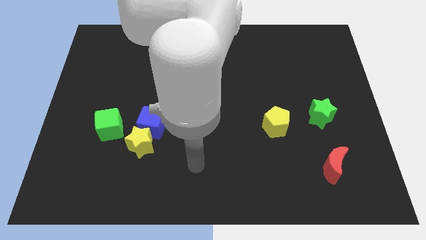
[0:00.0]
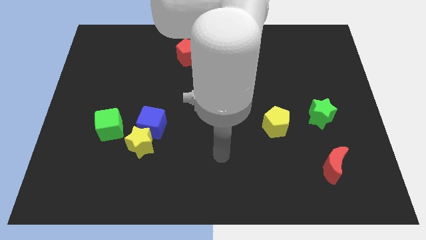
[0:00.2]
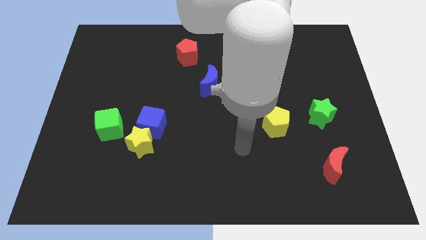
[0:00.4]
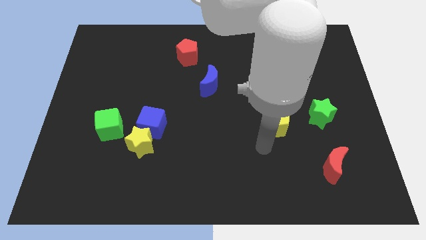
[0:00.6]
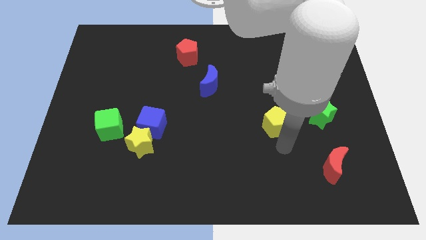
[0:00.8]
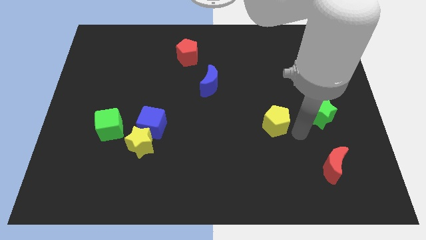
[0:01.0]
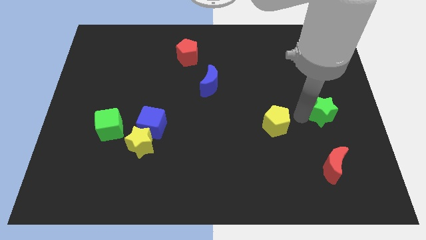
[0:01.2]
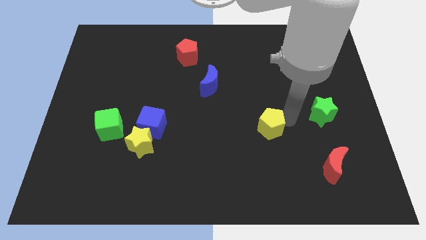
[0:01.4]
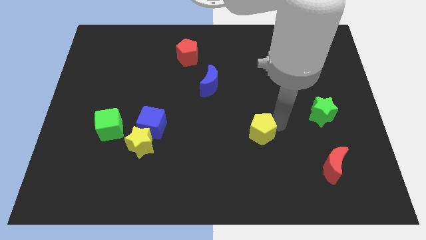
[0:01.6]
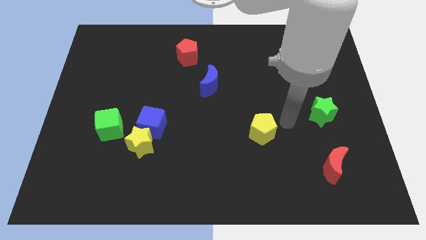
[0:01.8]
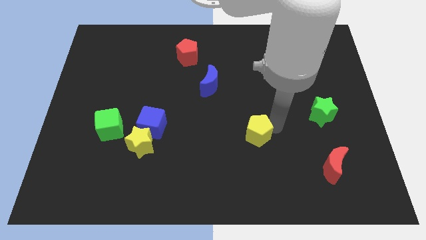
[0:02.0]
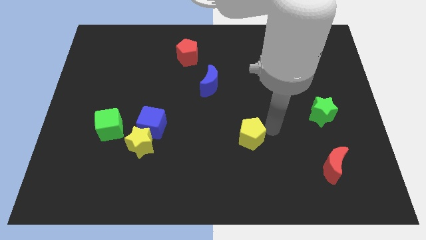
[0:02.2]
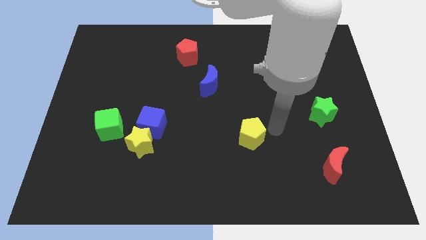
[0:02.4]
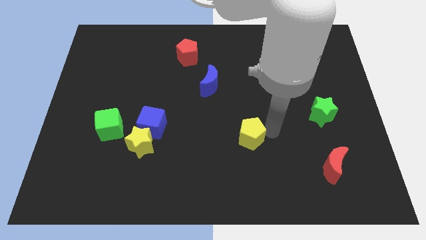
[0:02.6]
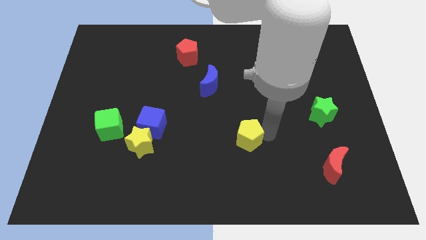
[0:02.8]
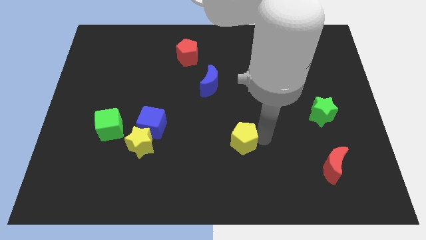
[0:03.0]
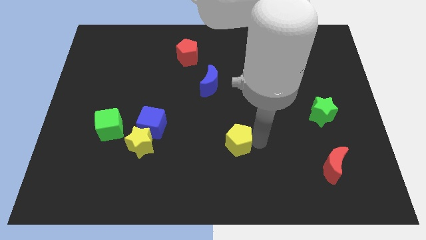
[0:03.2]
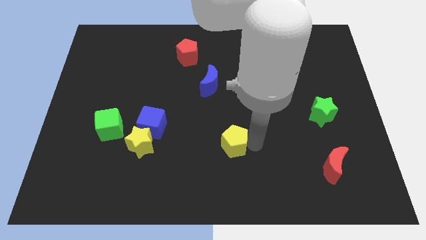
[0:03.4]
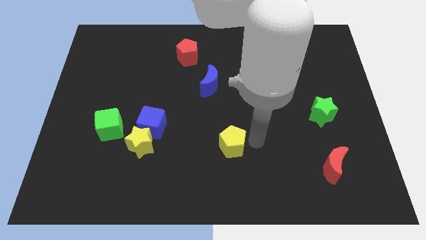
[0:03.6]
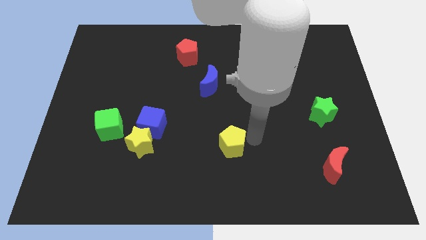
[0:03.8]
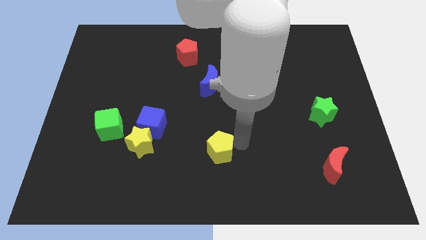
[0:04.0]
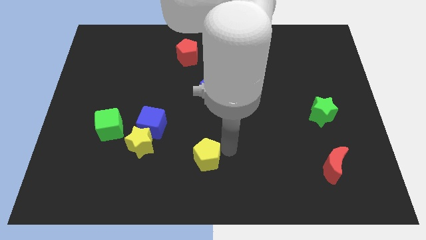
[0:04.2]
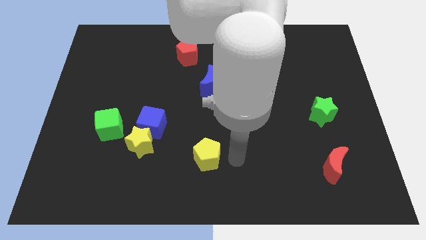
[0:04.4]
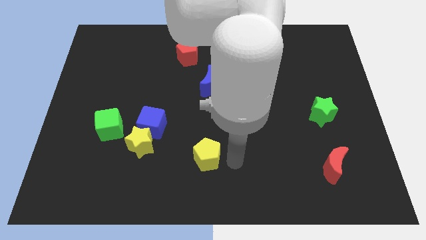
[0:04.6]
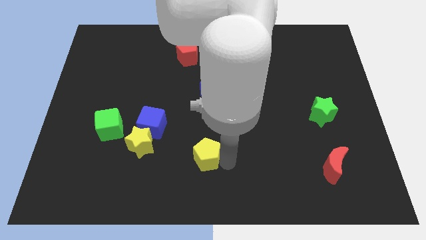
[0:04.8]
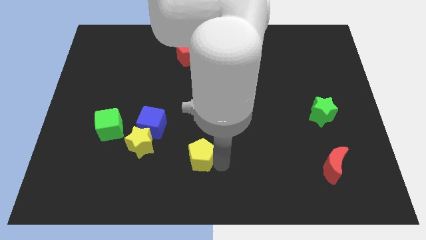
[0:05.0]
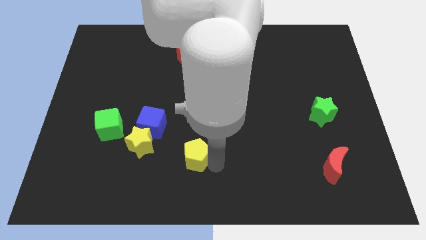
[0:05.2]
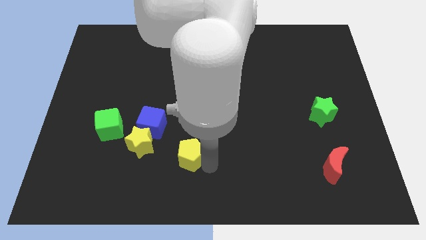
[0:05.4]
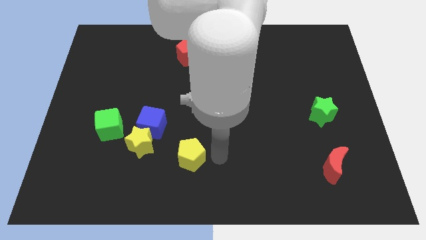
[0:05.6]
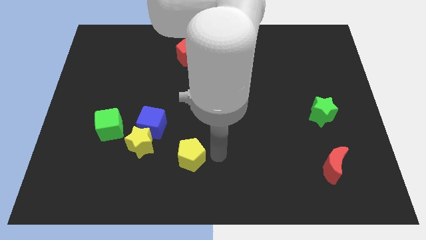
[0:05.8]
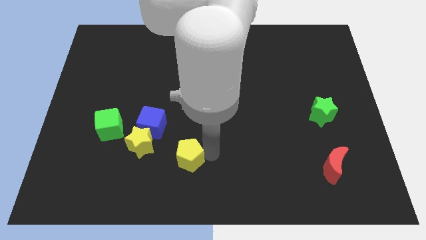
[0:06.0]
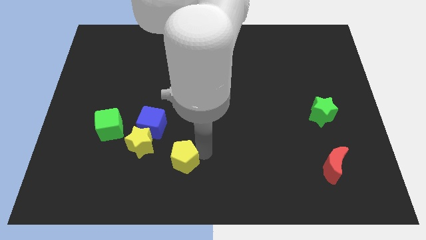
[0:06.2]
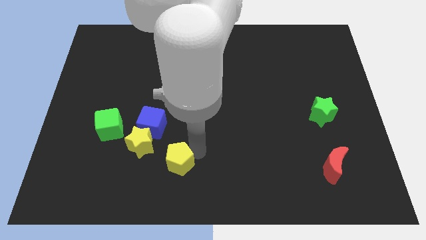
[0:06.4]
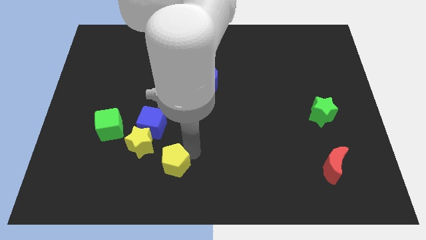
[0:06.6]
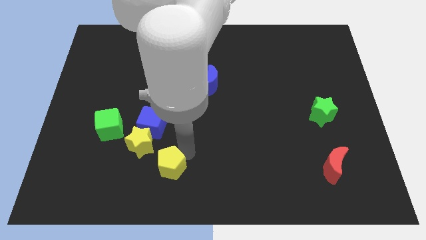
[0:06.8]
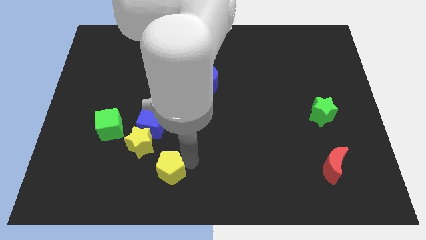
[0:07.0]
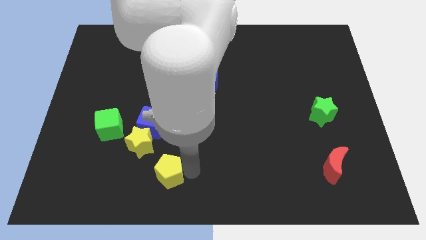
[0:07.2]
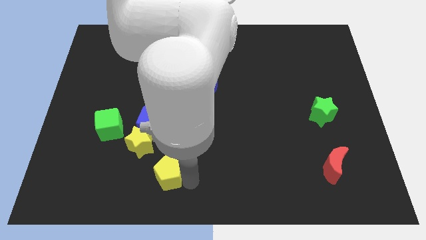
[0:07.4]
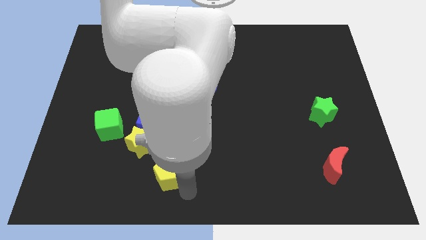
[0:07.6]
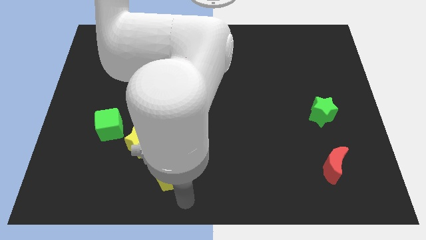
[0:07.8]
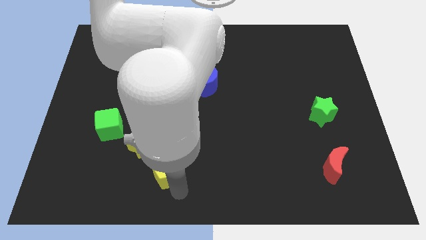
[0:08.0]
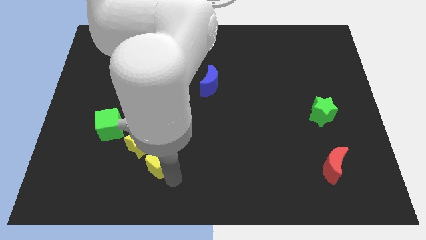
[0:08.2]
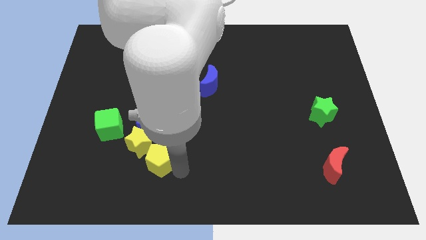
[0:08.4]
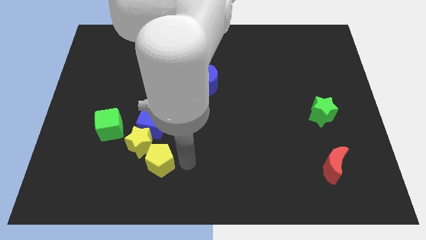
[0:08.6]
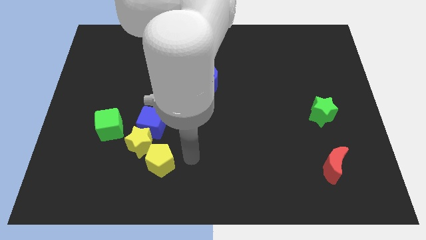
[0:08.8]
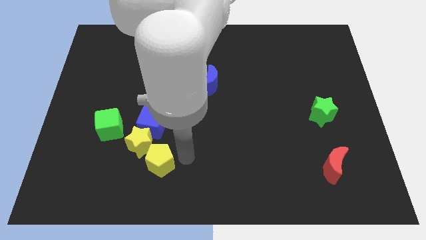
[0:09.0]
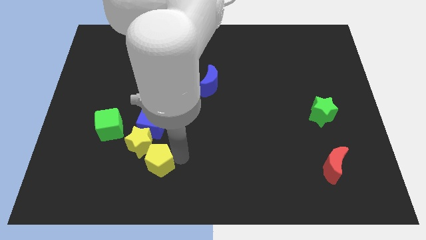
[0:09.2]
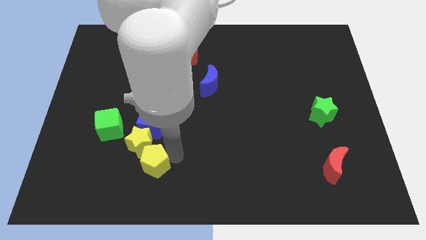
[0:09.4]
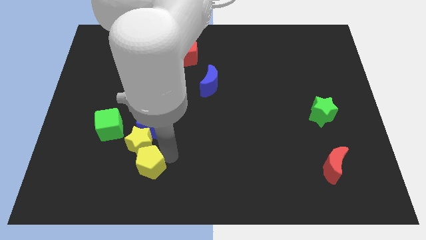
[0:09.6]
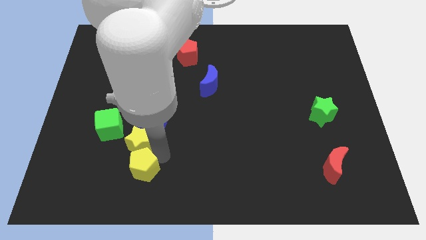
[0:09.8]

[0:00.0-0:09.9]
move the yellow pentagon diagonally down and to the left of the yellow star

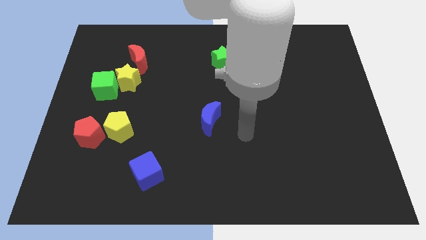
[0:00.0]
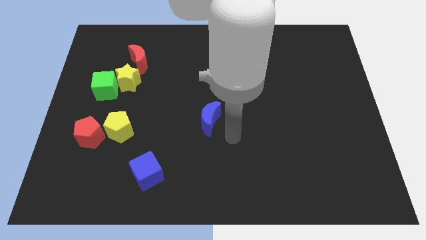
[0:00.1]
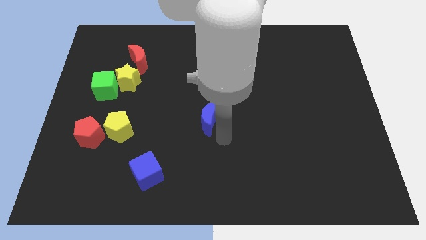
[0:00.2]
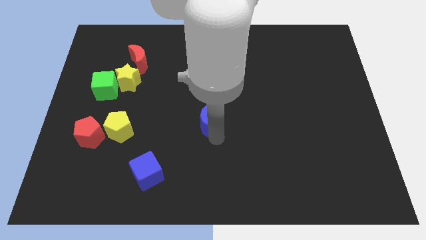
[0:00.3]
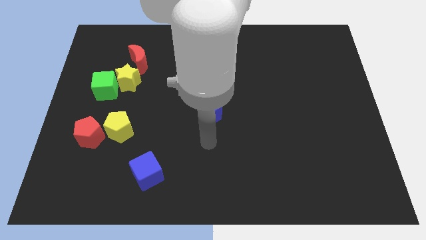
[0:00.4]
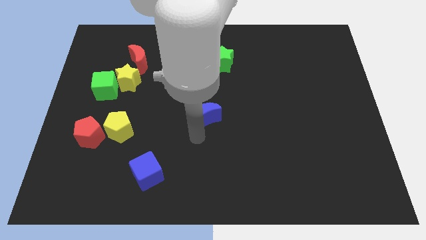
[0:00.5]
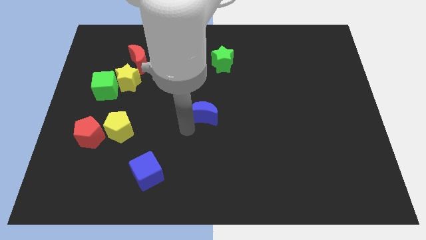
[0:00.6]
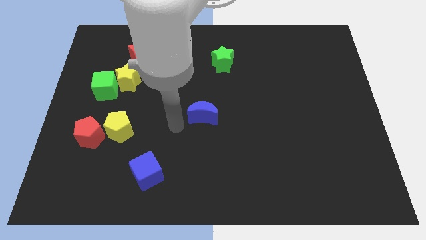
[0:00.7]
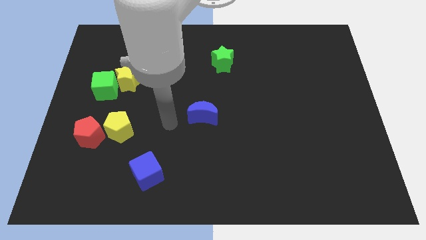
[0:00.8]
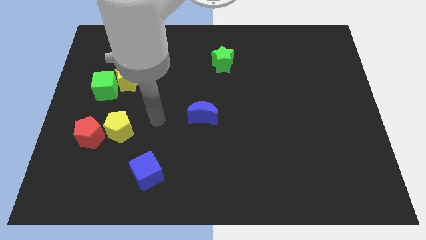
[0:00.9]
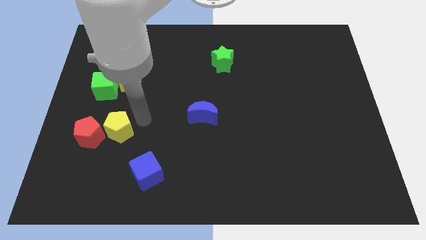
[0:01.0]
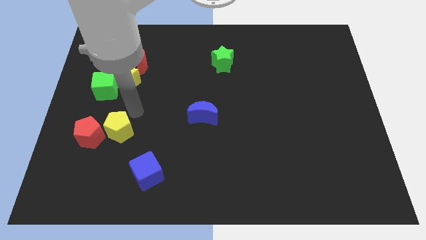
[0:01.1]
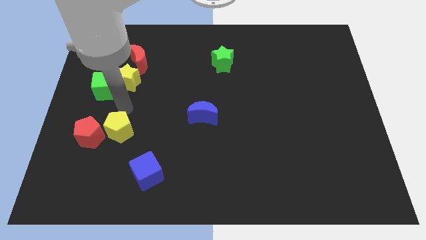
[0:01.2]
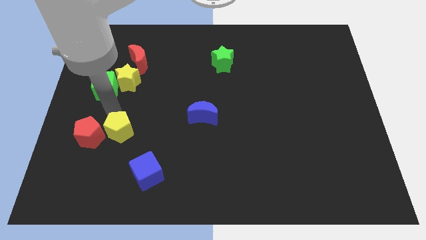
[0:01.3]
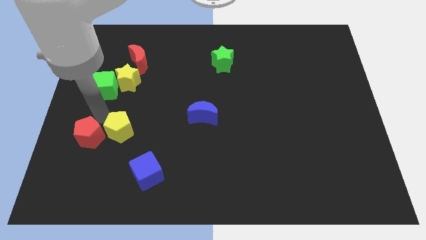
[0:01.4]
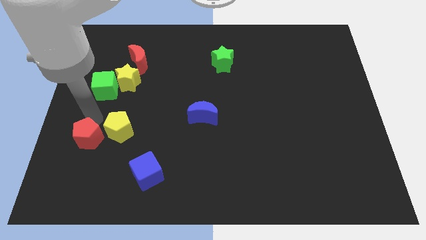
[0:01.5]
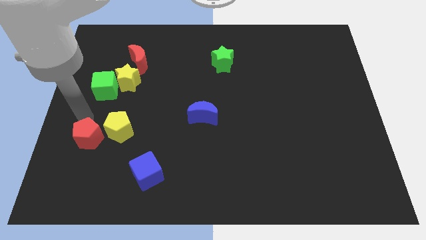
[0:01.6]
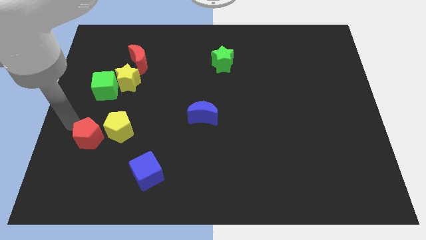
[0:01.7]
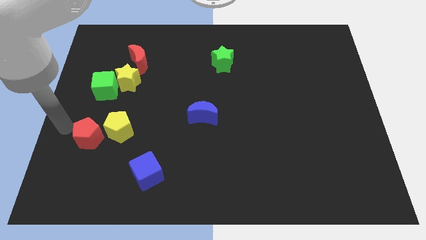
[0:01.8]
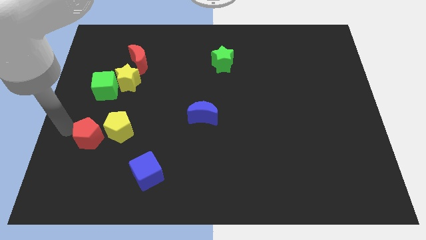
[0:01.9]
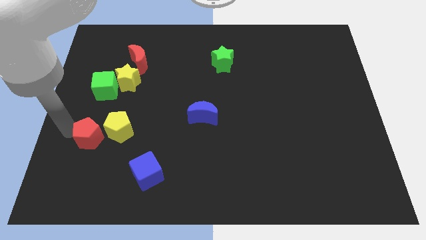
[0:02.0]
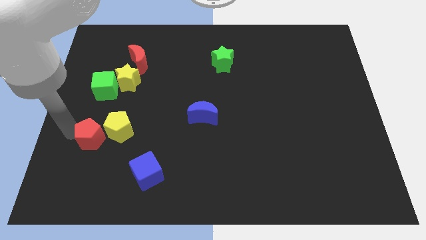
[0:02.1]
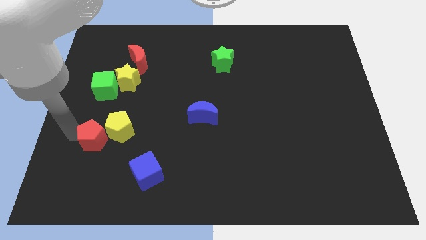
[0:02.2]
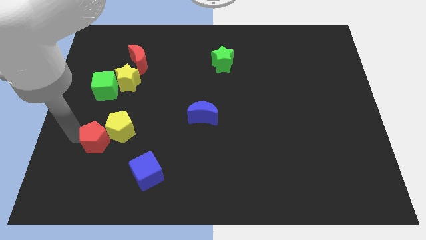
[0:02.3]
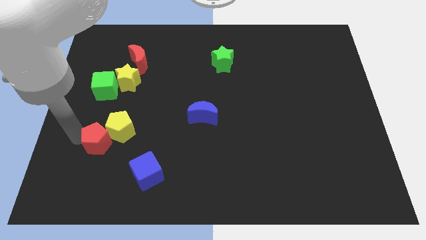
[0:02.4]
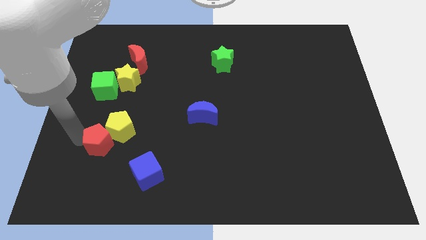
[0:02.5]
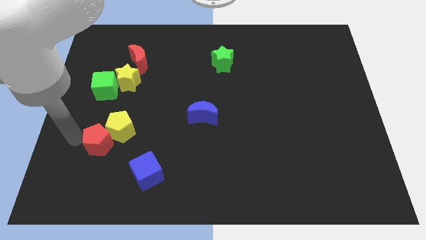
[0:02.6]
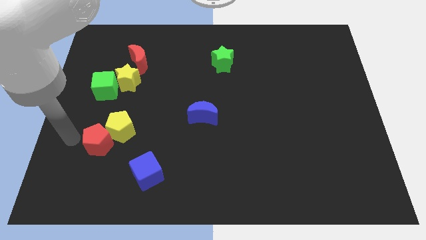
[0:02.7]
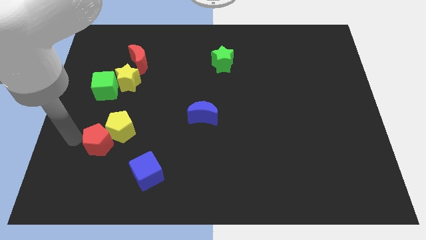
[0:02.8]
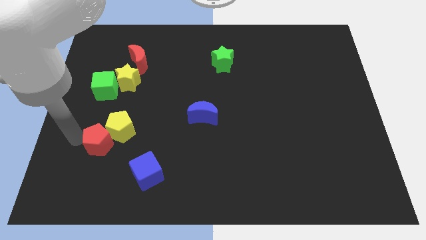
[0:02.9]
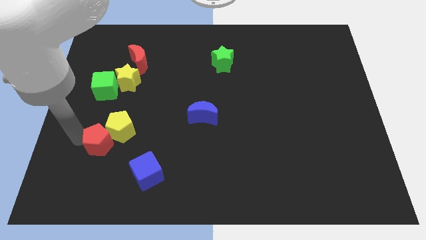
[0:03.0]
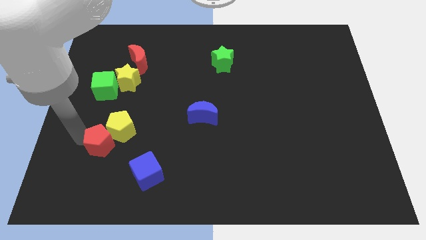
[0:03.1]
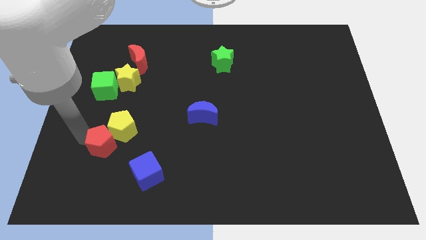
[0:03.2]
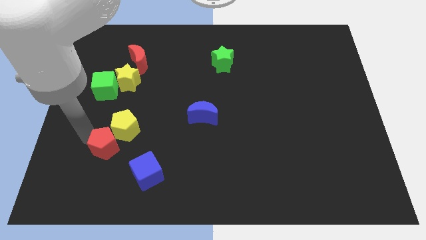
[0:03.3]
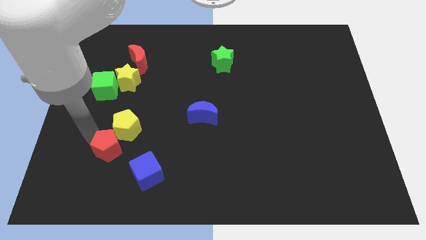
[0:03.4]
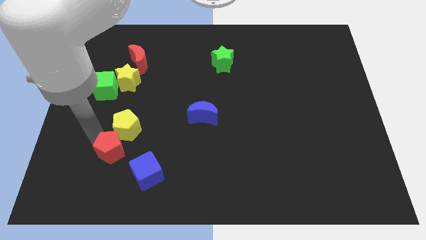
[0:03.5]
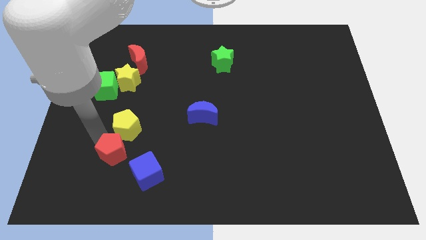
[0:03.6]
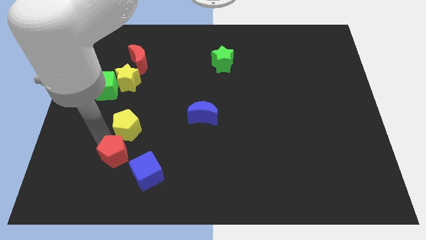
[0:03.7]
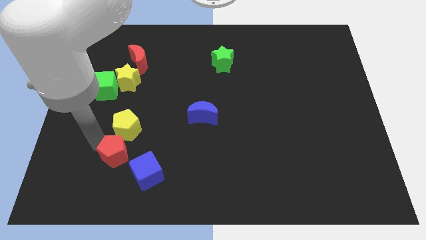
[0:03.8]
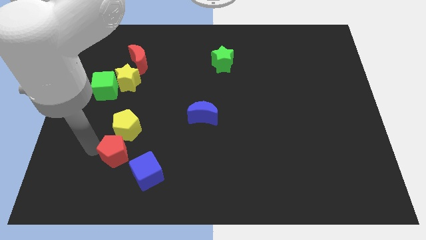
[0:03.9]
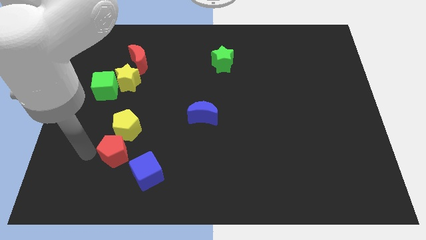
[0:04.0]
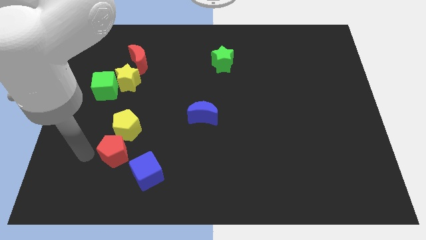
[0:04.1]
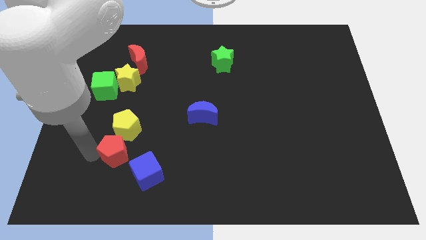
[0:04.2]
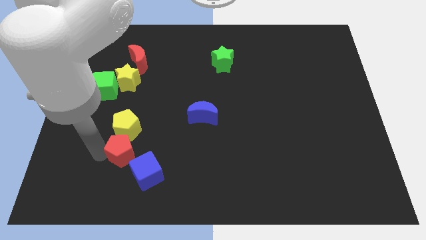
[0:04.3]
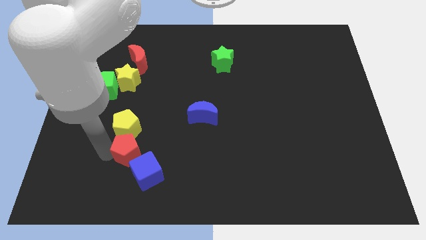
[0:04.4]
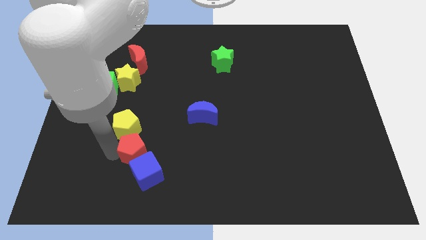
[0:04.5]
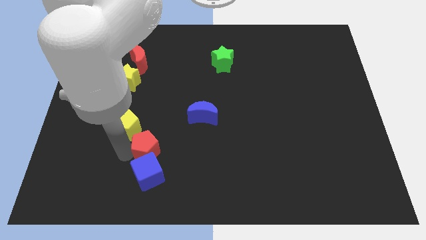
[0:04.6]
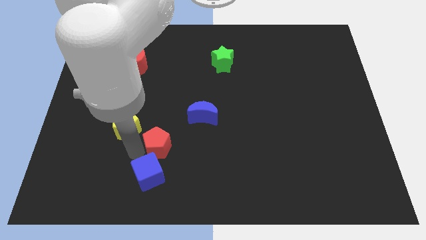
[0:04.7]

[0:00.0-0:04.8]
put the red pentagon to the bottom left of the blue moon
